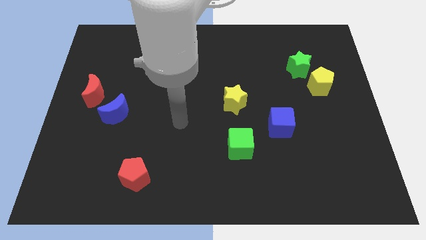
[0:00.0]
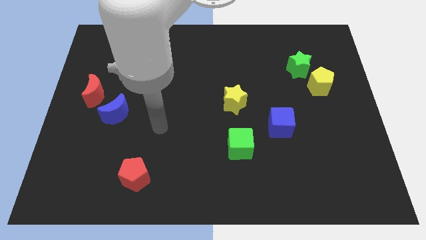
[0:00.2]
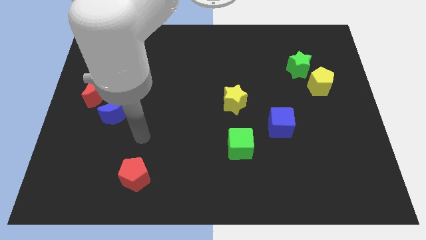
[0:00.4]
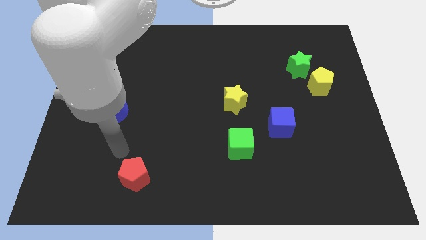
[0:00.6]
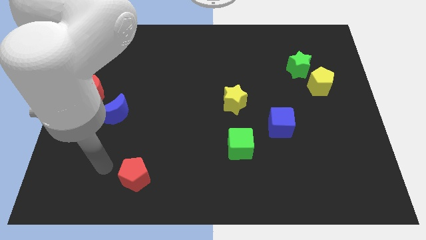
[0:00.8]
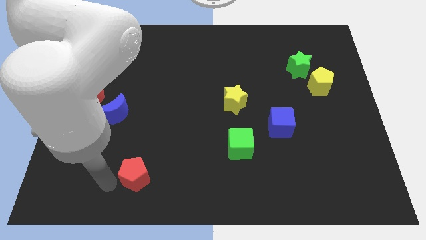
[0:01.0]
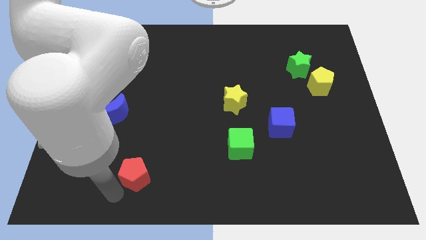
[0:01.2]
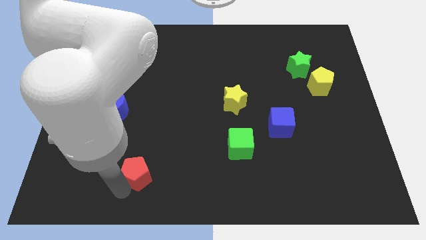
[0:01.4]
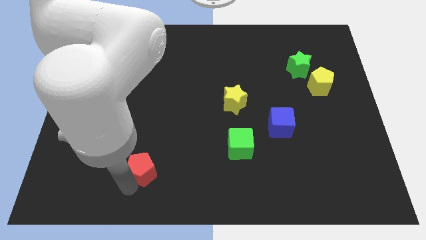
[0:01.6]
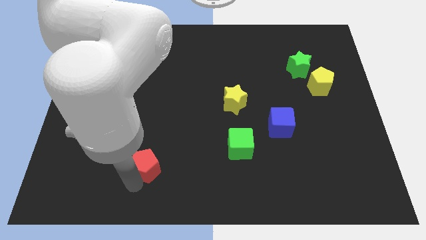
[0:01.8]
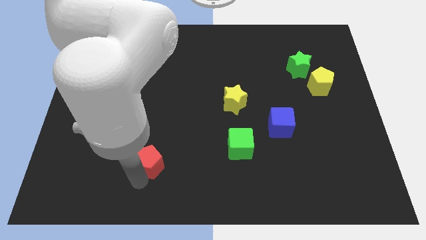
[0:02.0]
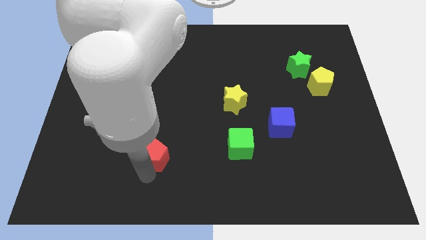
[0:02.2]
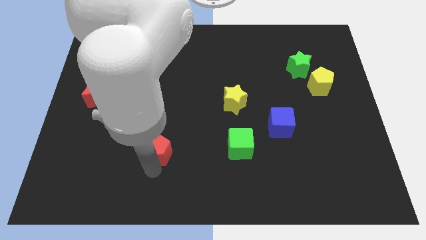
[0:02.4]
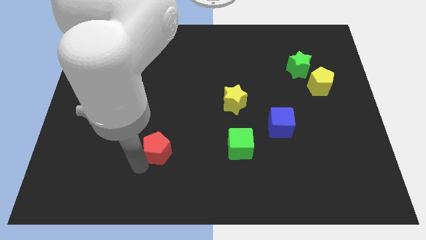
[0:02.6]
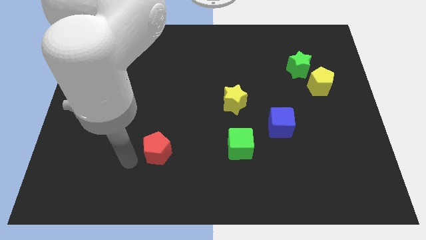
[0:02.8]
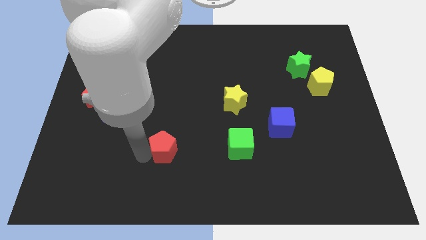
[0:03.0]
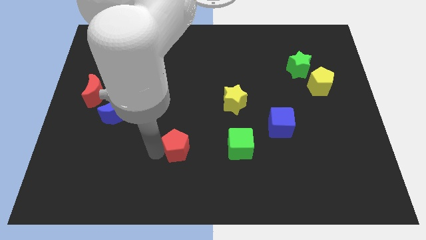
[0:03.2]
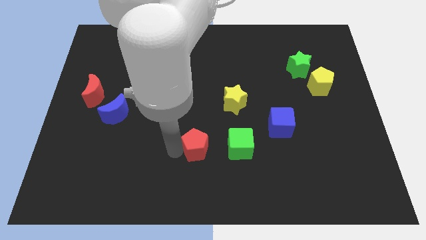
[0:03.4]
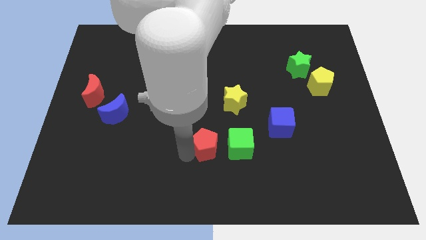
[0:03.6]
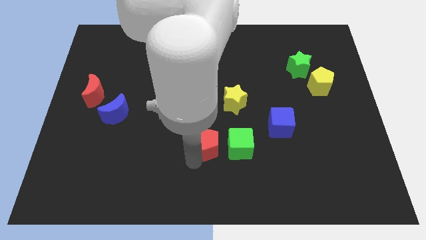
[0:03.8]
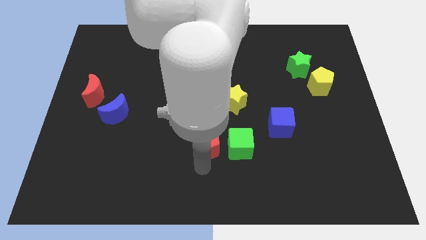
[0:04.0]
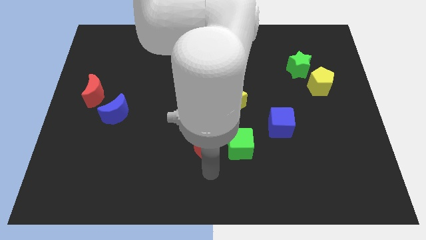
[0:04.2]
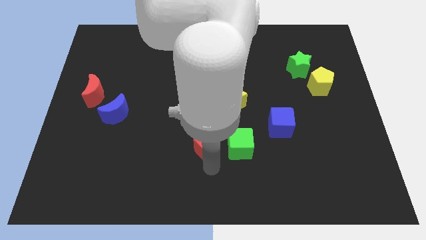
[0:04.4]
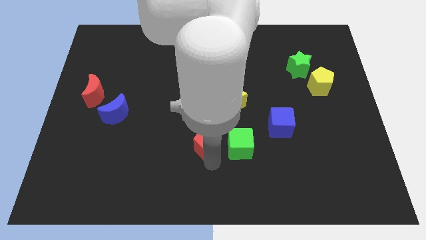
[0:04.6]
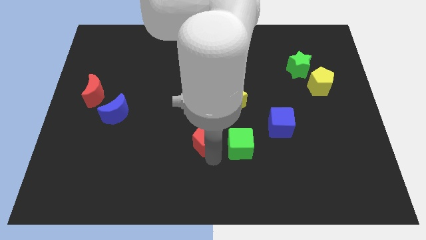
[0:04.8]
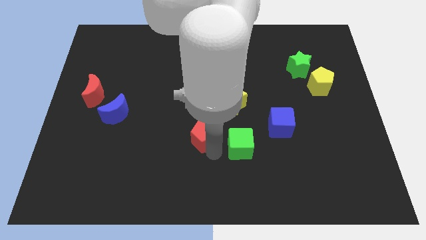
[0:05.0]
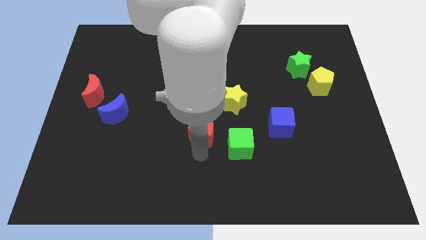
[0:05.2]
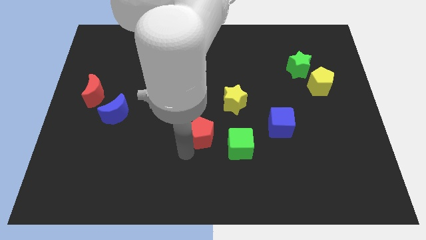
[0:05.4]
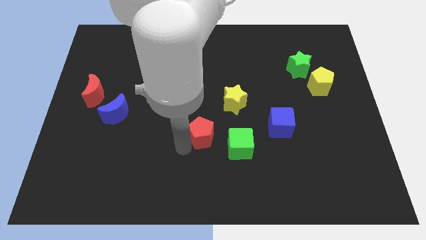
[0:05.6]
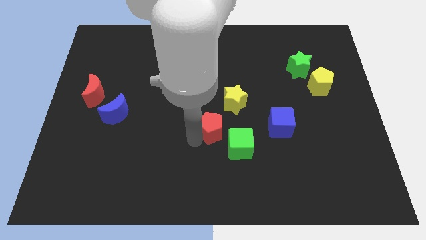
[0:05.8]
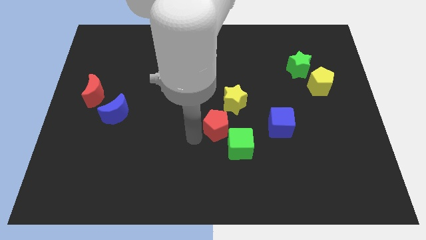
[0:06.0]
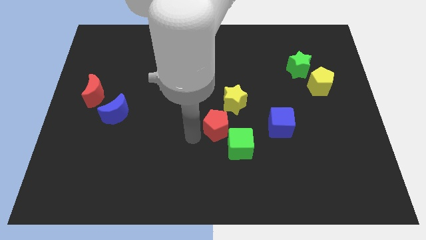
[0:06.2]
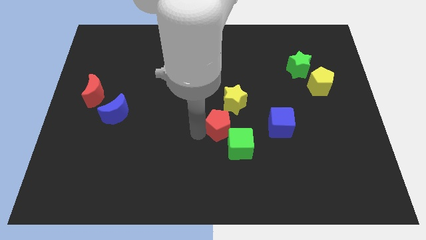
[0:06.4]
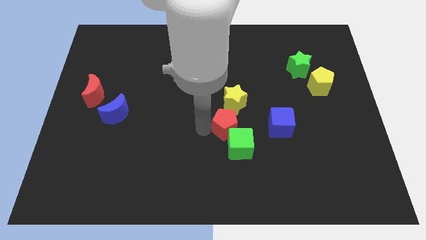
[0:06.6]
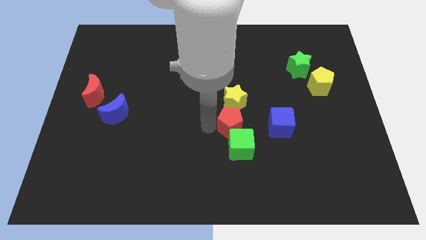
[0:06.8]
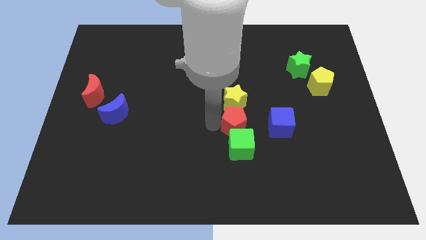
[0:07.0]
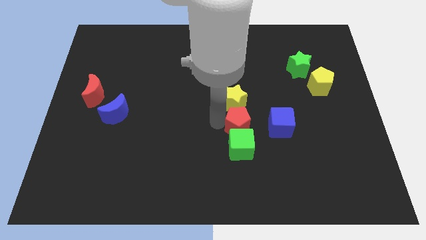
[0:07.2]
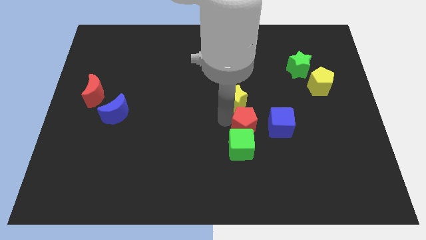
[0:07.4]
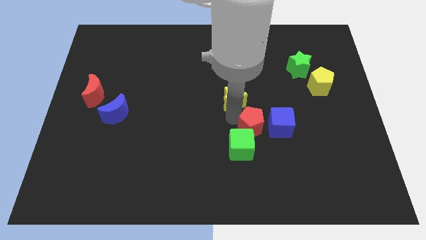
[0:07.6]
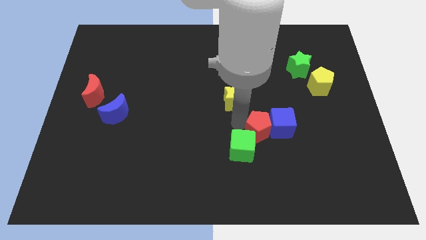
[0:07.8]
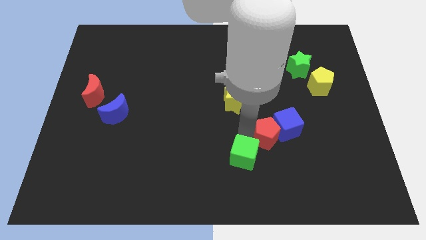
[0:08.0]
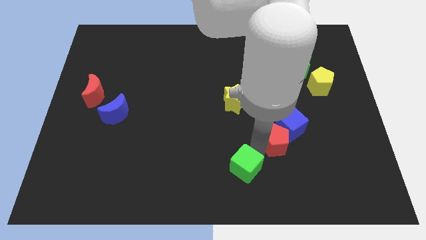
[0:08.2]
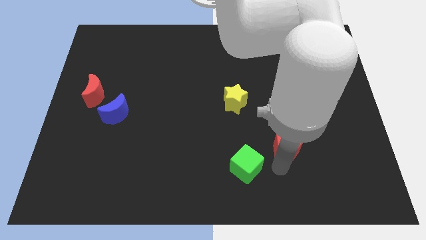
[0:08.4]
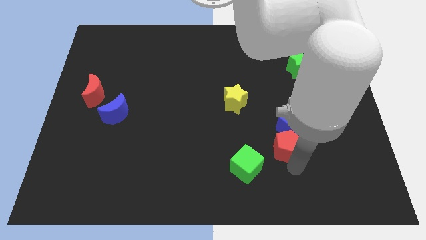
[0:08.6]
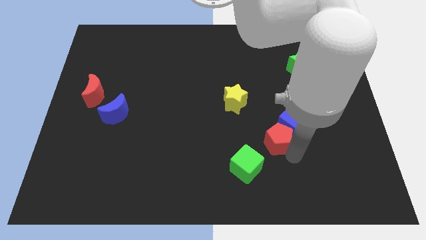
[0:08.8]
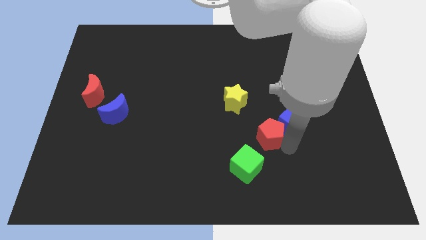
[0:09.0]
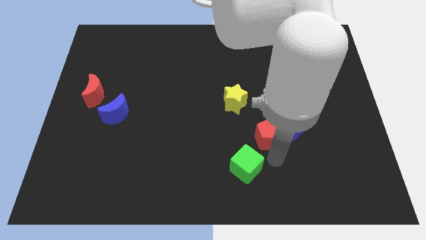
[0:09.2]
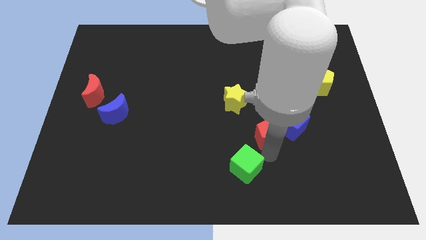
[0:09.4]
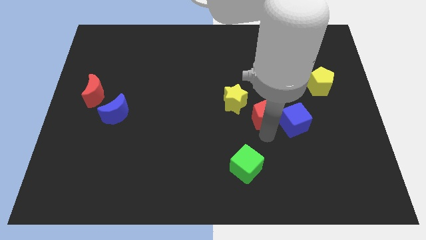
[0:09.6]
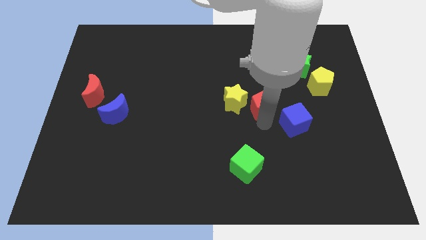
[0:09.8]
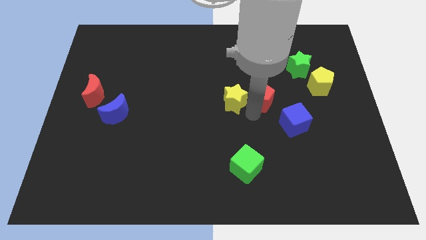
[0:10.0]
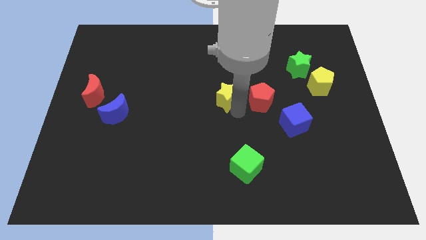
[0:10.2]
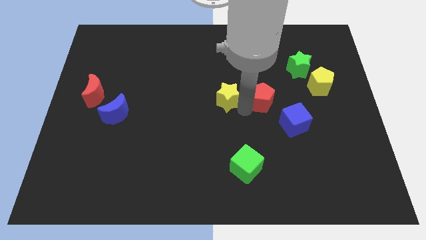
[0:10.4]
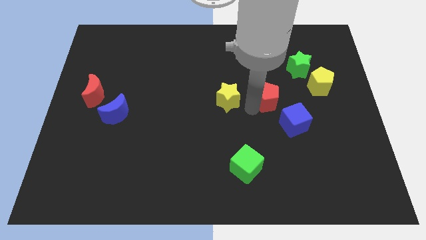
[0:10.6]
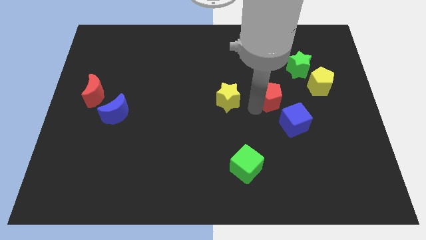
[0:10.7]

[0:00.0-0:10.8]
slide the red pentagon to the top side of the blue cube

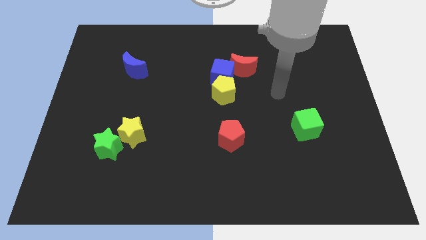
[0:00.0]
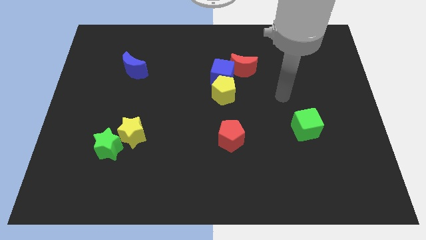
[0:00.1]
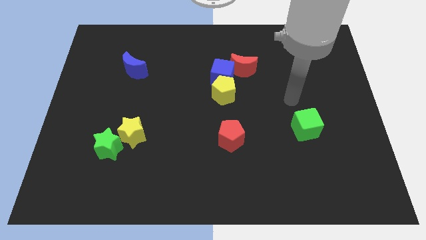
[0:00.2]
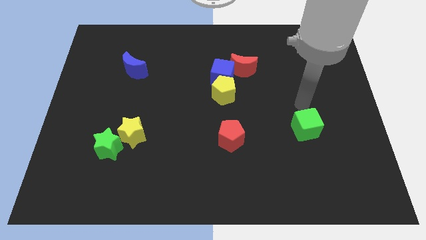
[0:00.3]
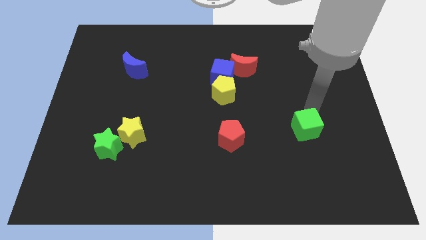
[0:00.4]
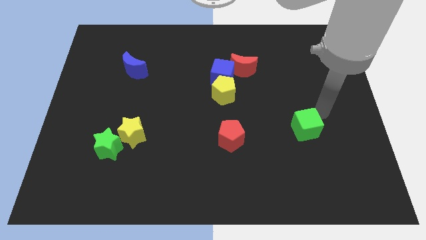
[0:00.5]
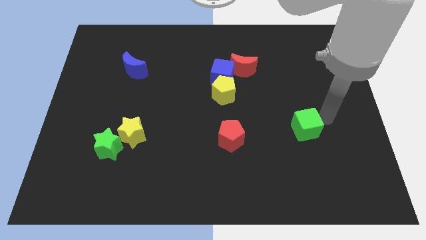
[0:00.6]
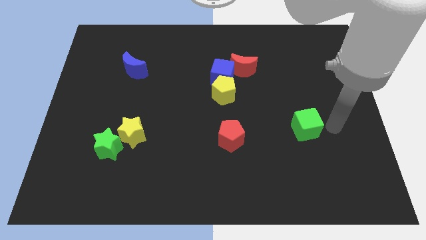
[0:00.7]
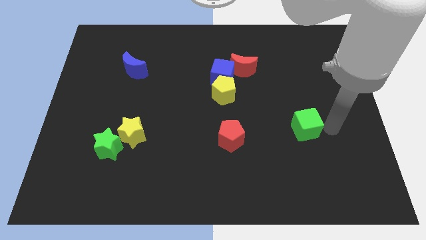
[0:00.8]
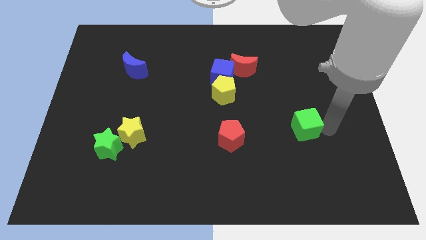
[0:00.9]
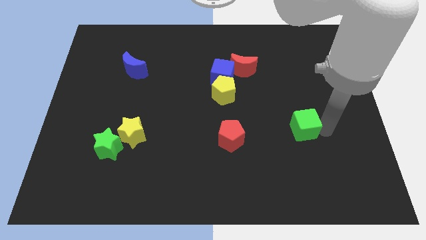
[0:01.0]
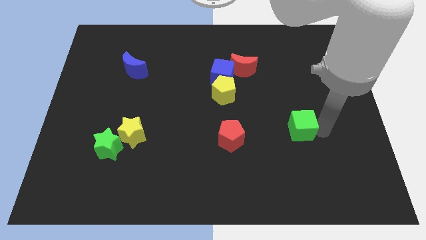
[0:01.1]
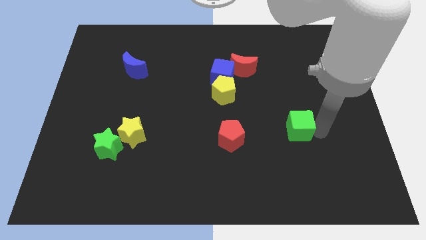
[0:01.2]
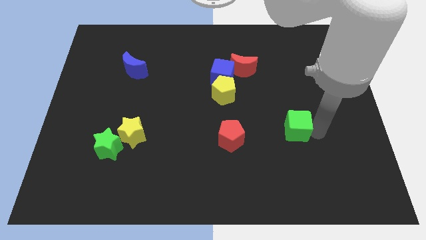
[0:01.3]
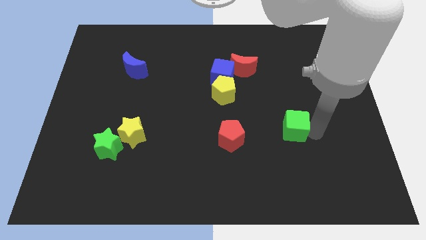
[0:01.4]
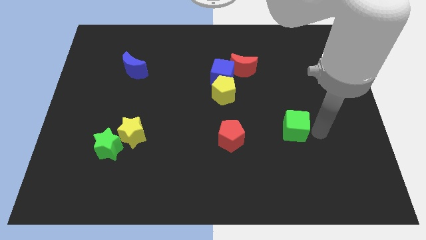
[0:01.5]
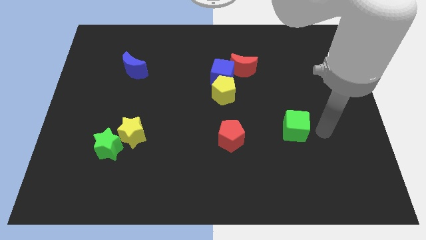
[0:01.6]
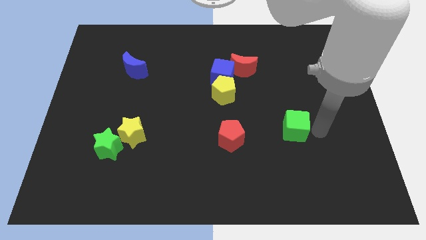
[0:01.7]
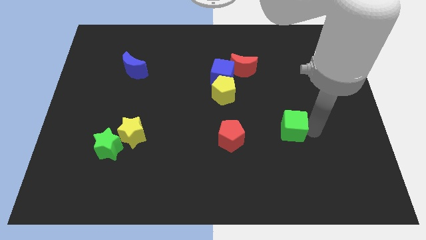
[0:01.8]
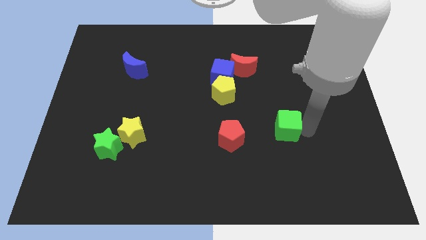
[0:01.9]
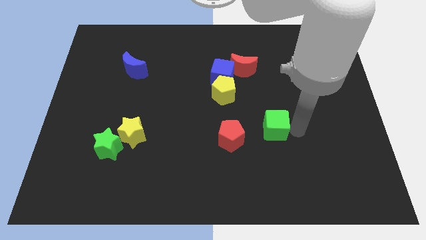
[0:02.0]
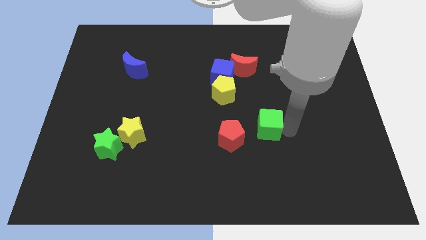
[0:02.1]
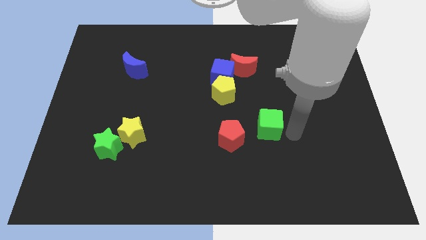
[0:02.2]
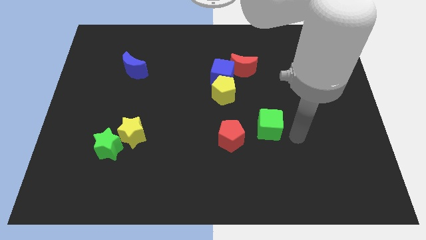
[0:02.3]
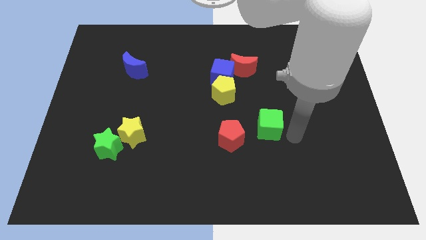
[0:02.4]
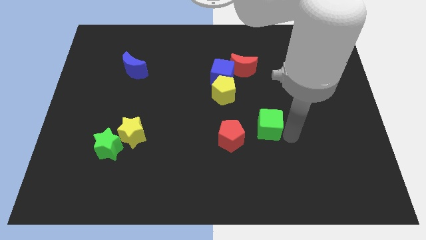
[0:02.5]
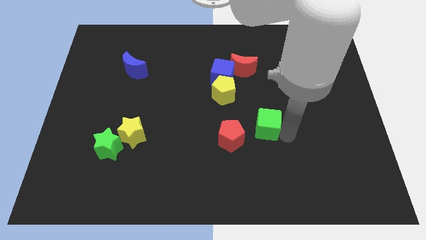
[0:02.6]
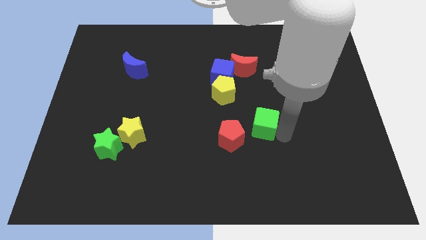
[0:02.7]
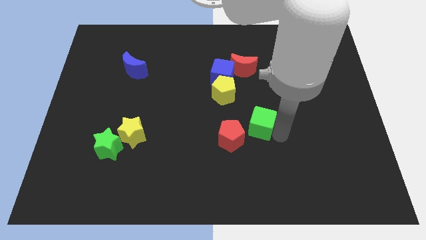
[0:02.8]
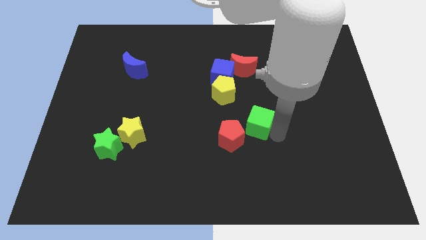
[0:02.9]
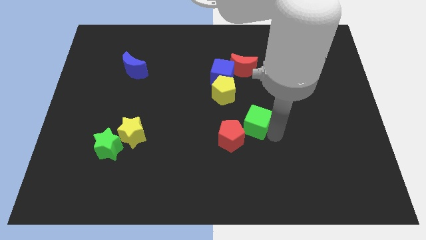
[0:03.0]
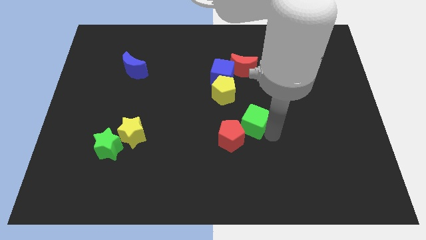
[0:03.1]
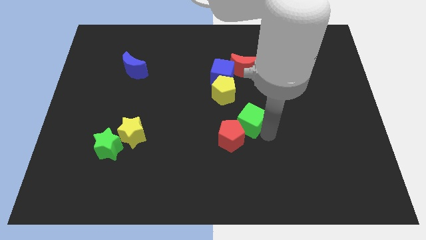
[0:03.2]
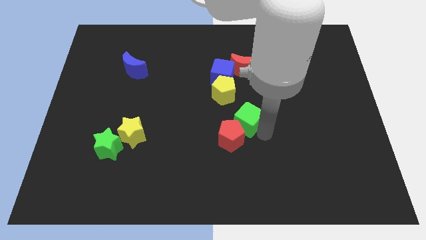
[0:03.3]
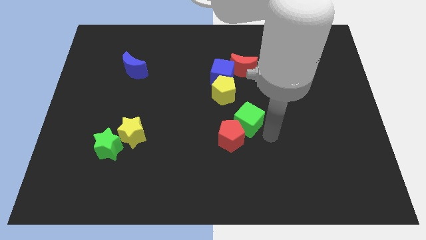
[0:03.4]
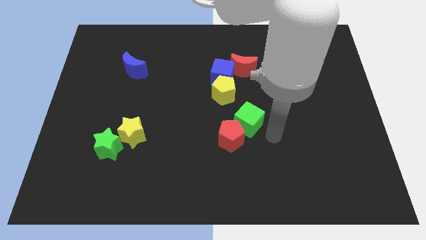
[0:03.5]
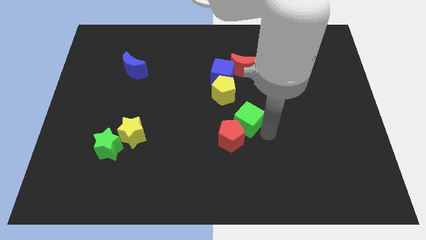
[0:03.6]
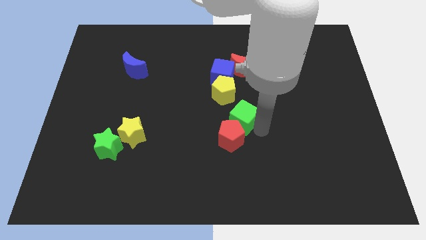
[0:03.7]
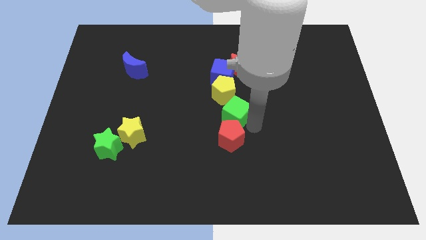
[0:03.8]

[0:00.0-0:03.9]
slide the green cube to the bottom side of the blue cube
